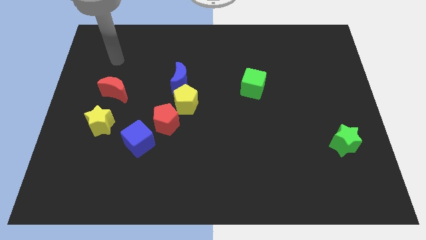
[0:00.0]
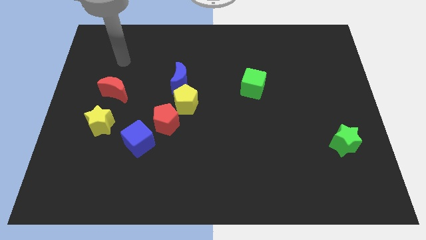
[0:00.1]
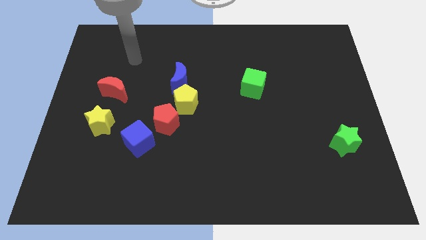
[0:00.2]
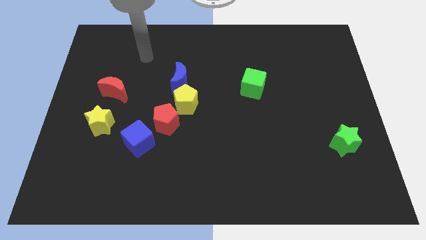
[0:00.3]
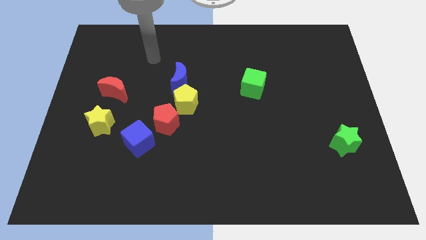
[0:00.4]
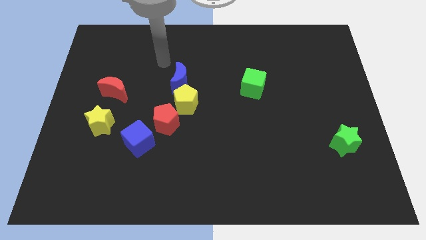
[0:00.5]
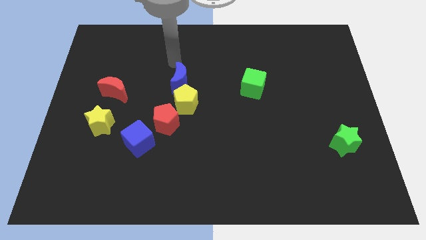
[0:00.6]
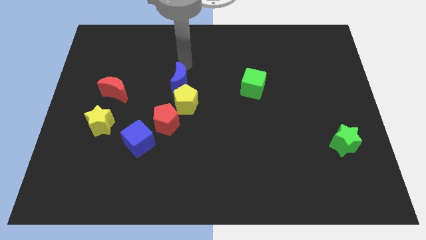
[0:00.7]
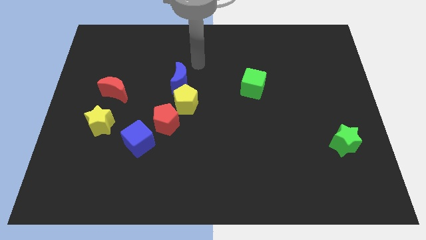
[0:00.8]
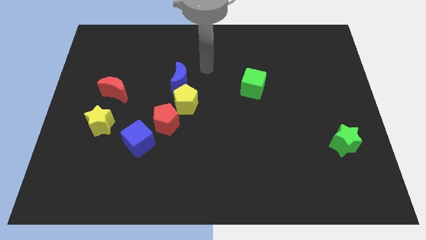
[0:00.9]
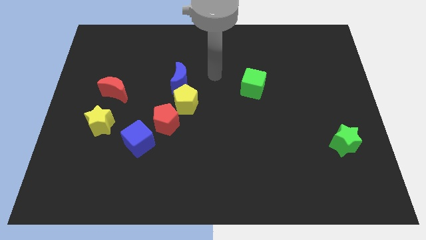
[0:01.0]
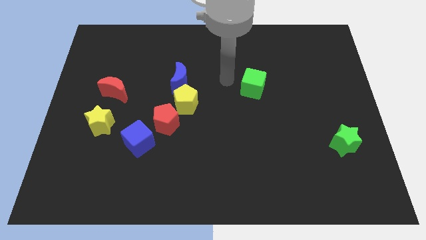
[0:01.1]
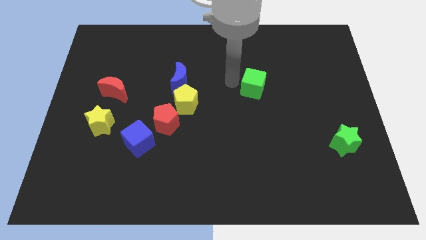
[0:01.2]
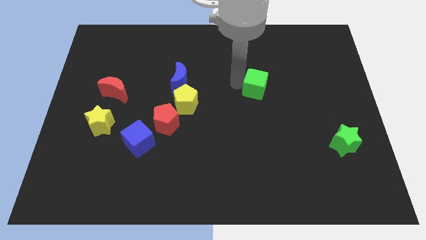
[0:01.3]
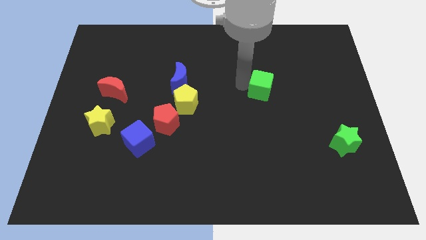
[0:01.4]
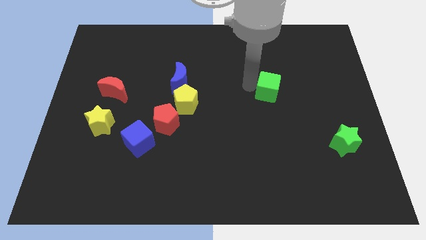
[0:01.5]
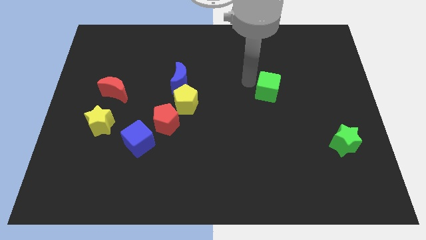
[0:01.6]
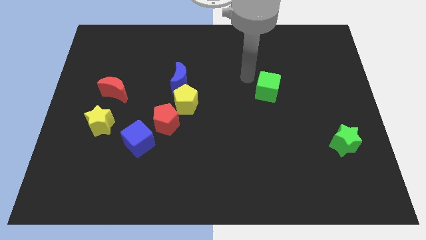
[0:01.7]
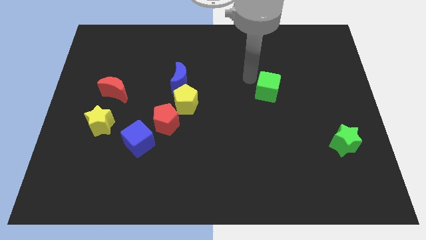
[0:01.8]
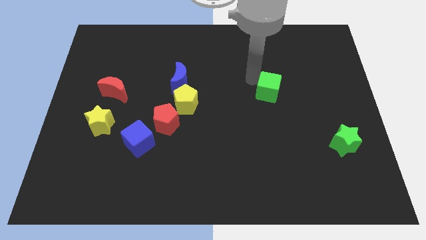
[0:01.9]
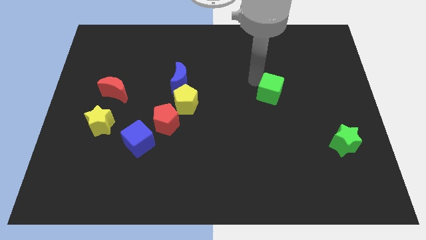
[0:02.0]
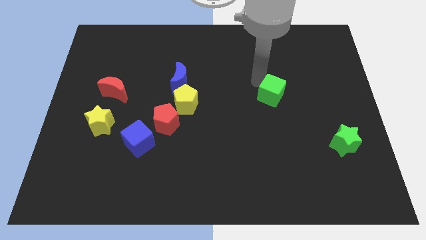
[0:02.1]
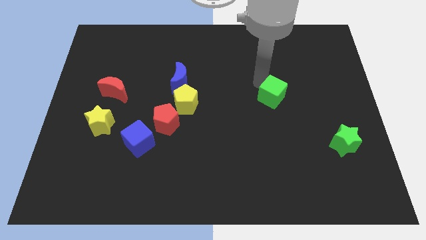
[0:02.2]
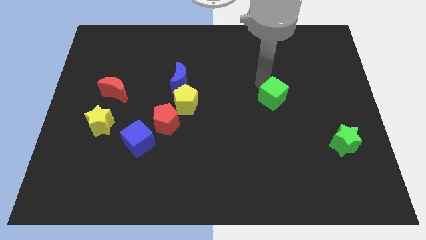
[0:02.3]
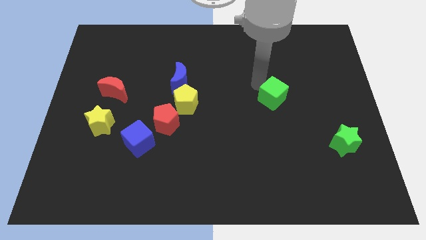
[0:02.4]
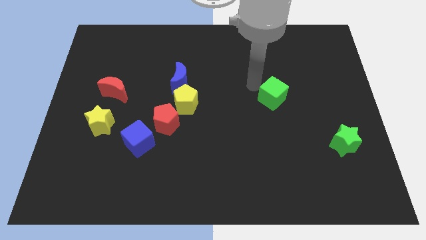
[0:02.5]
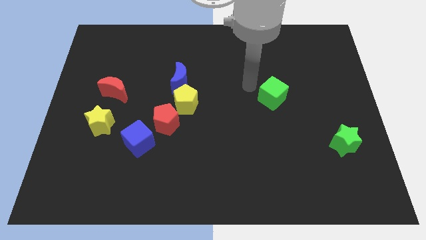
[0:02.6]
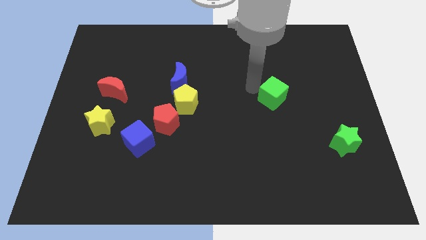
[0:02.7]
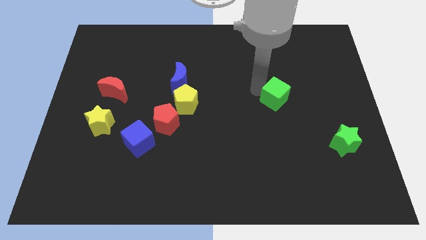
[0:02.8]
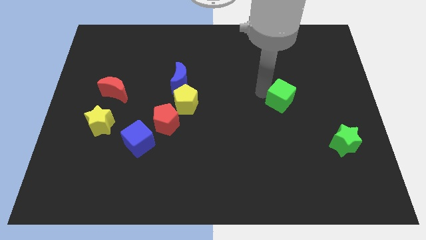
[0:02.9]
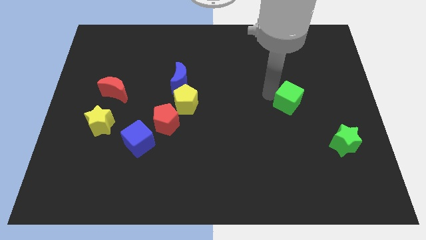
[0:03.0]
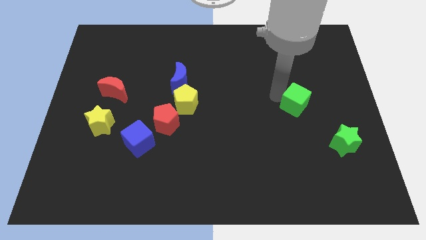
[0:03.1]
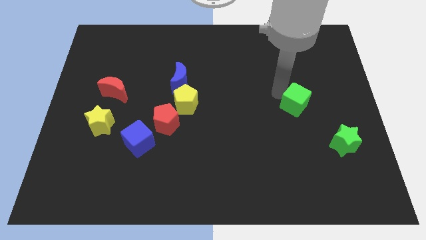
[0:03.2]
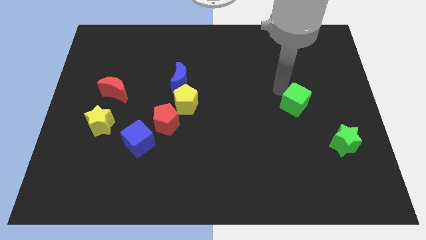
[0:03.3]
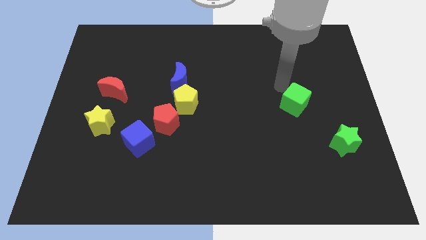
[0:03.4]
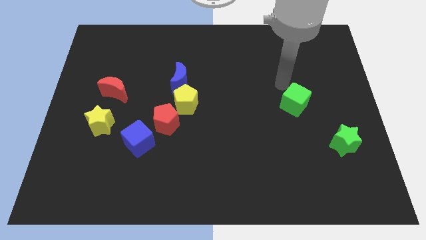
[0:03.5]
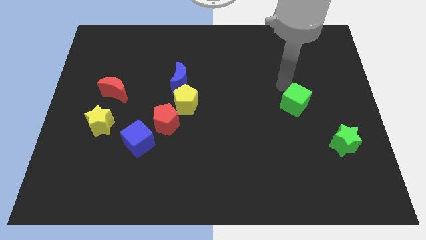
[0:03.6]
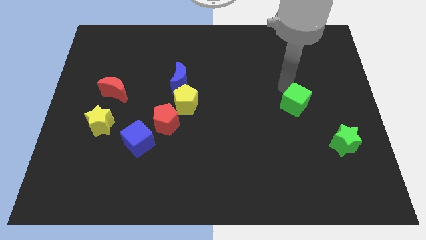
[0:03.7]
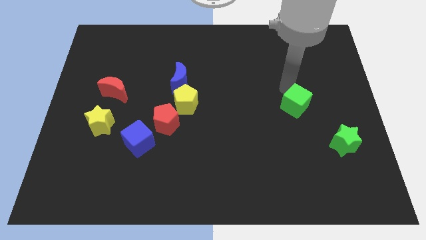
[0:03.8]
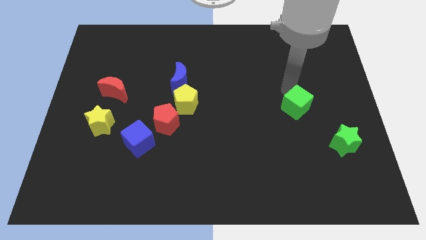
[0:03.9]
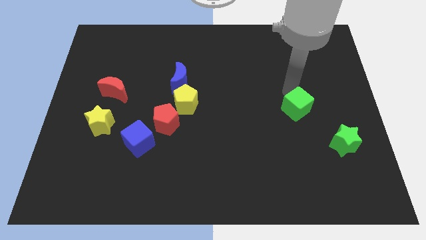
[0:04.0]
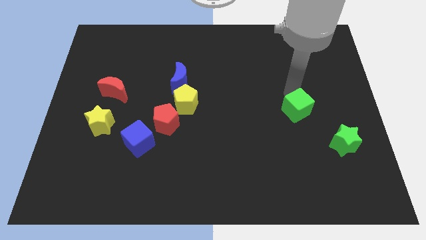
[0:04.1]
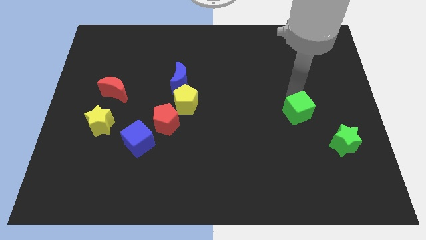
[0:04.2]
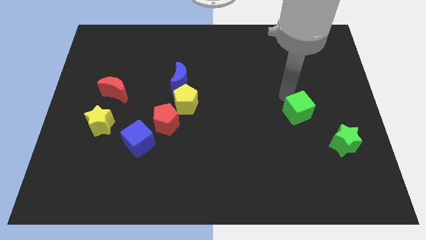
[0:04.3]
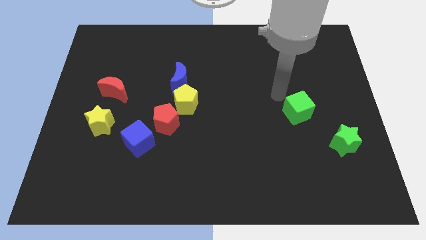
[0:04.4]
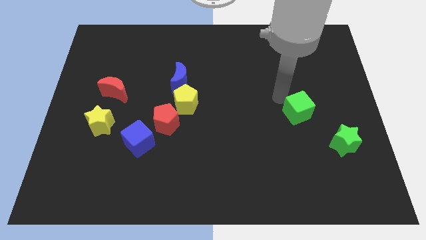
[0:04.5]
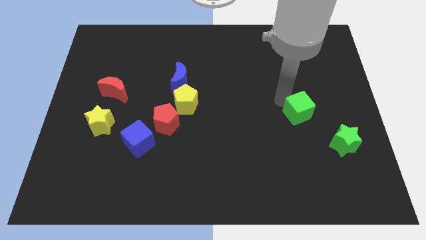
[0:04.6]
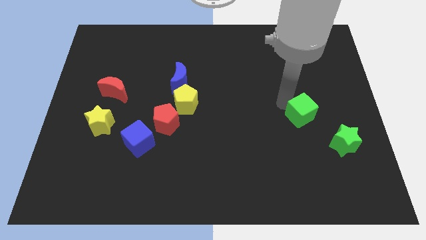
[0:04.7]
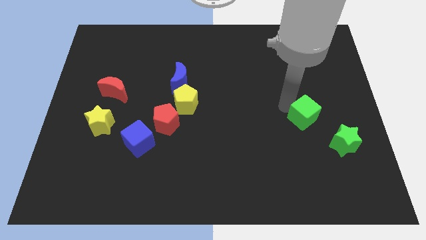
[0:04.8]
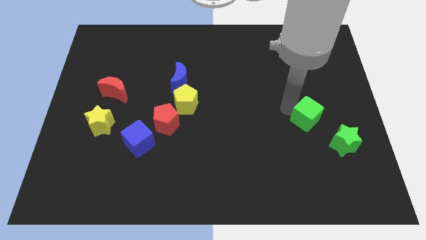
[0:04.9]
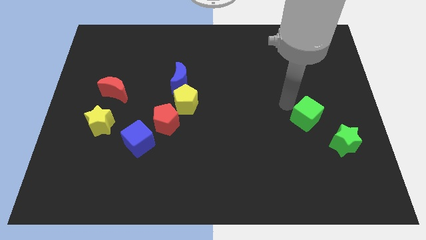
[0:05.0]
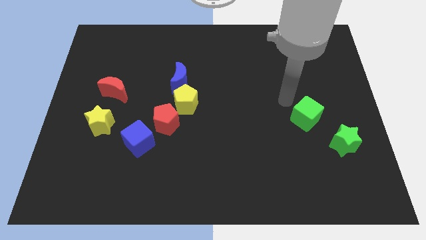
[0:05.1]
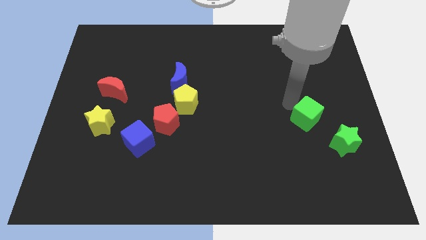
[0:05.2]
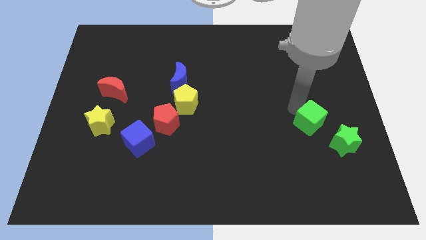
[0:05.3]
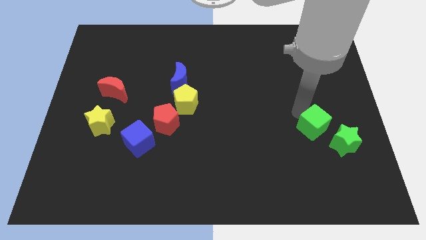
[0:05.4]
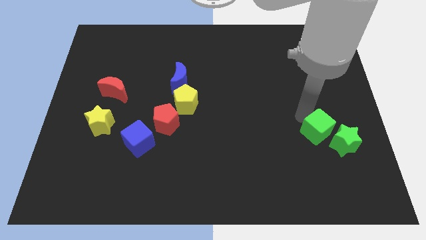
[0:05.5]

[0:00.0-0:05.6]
move the green cube next to the green star
